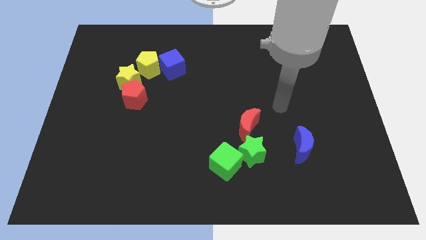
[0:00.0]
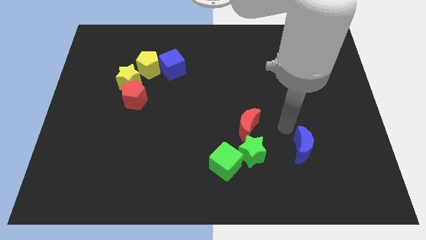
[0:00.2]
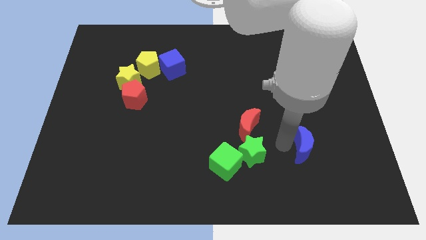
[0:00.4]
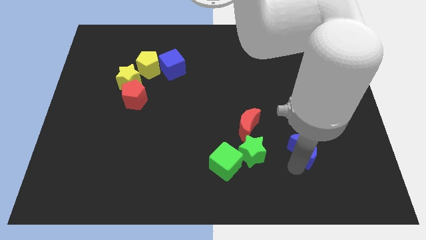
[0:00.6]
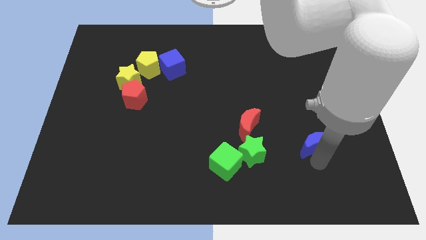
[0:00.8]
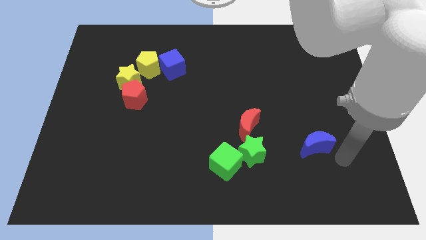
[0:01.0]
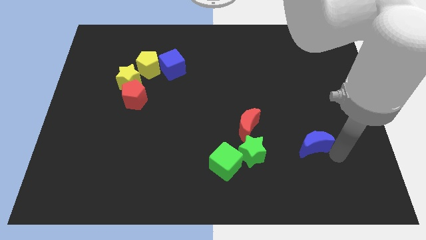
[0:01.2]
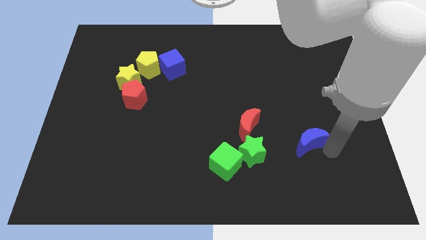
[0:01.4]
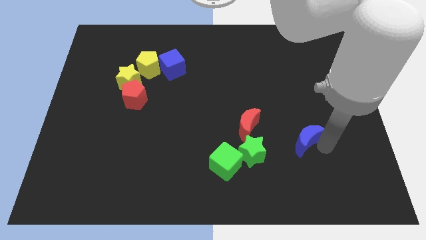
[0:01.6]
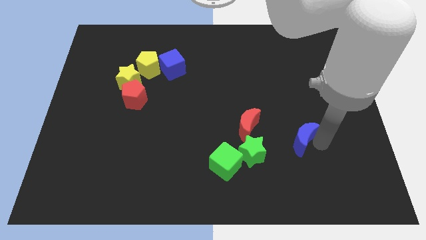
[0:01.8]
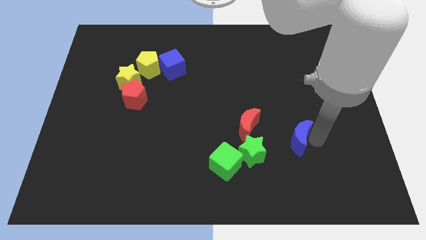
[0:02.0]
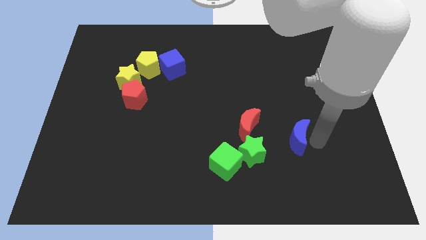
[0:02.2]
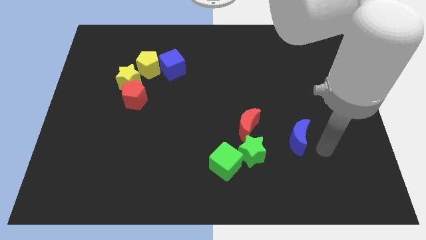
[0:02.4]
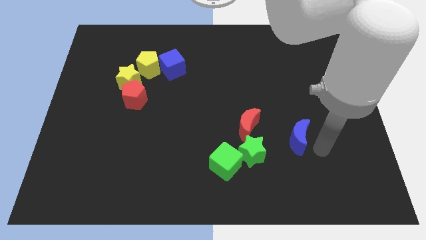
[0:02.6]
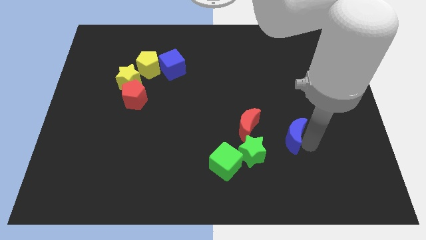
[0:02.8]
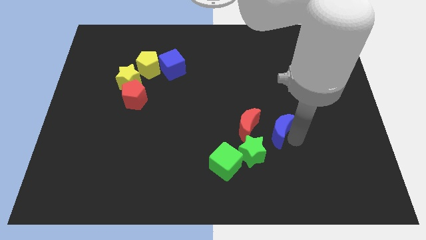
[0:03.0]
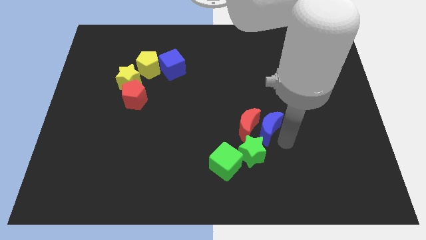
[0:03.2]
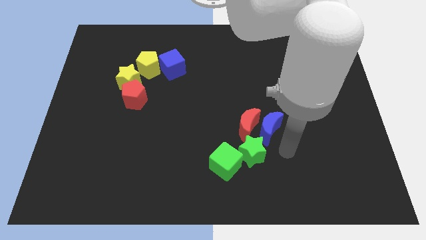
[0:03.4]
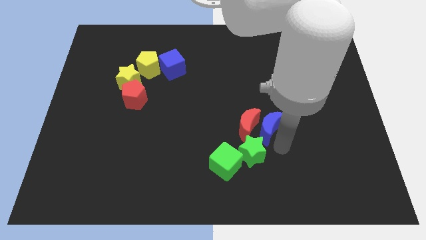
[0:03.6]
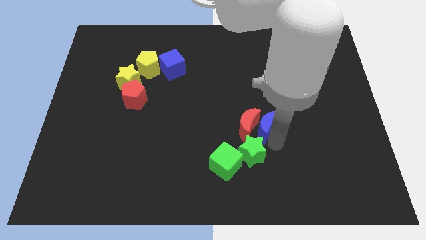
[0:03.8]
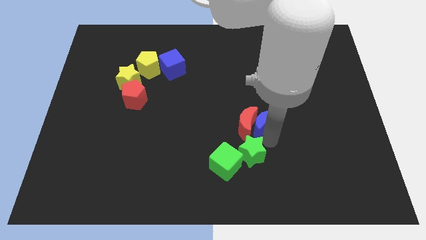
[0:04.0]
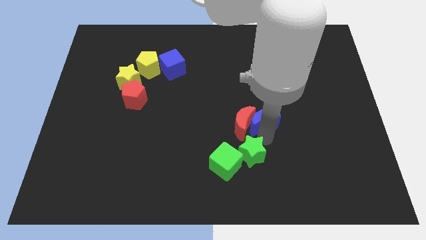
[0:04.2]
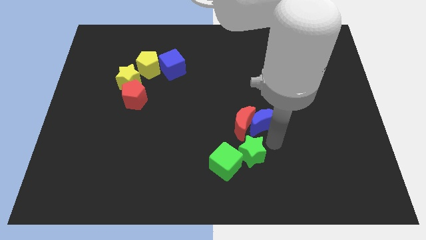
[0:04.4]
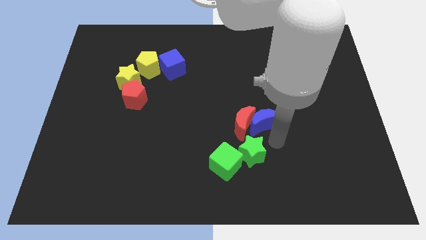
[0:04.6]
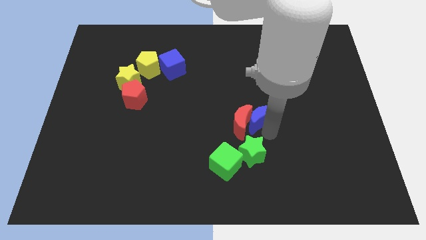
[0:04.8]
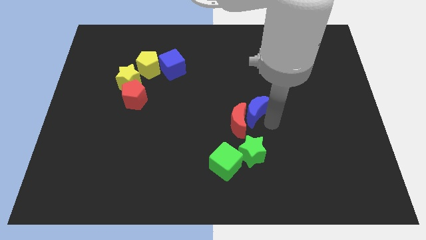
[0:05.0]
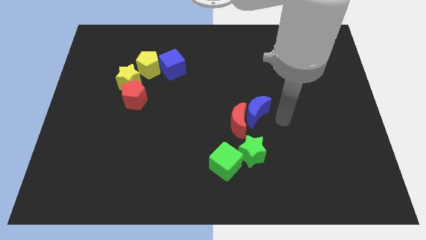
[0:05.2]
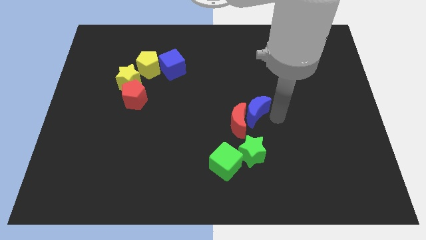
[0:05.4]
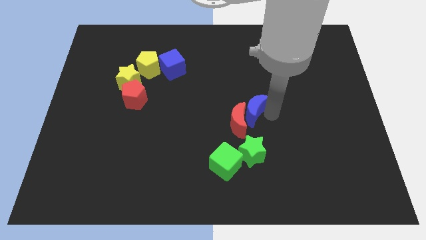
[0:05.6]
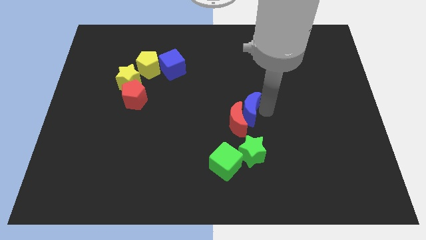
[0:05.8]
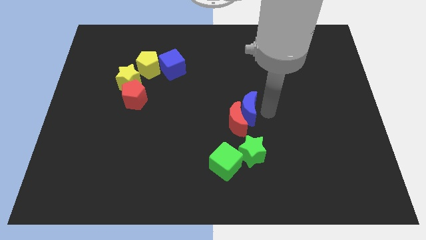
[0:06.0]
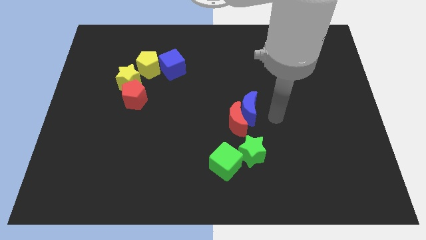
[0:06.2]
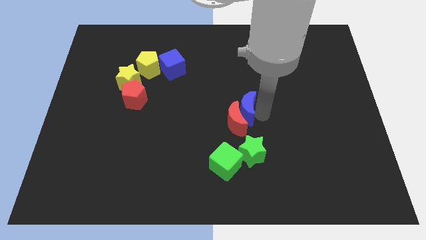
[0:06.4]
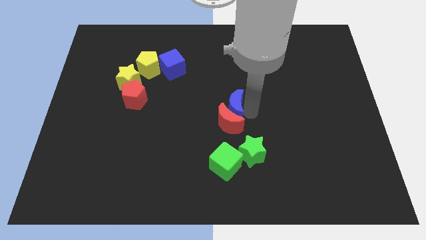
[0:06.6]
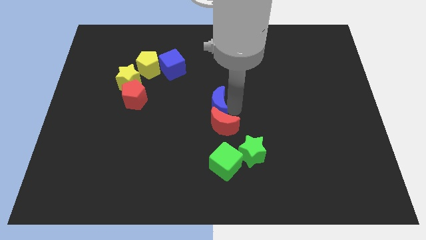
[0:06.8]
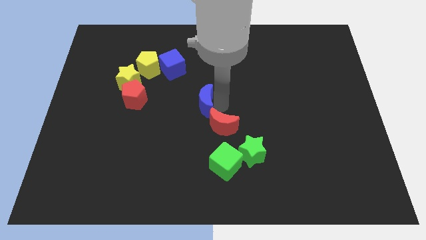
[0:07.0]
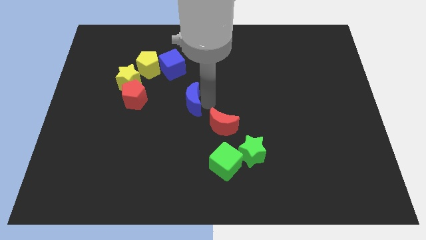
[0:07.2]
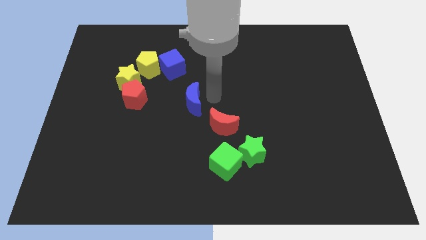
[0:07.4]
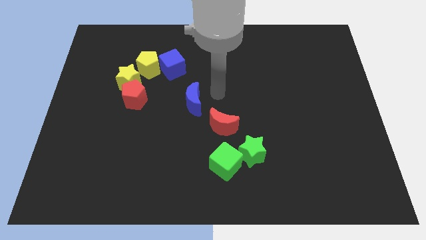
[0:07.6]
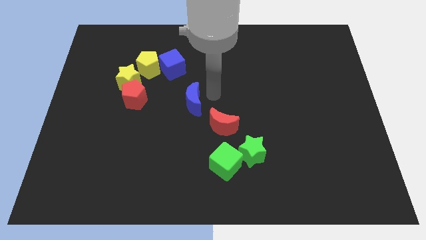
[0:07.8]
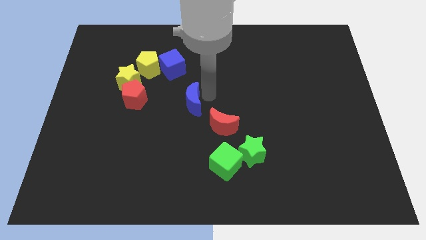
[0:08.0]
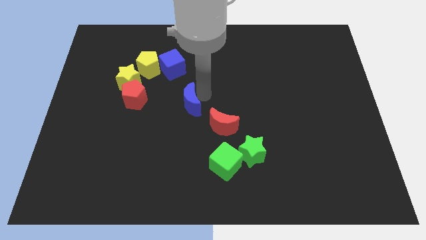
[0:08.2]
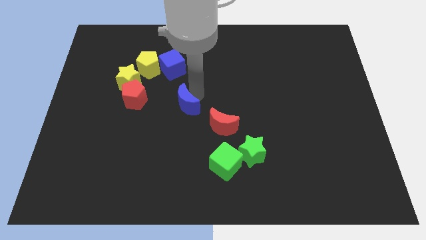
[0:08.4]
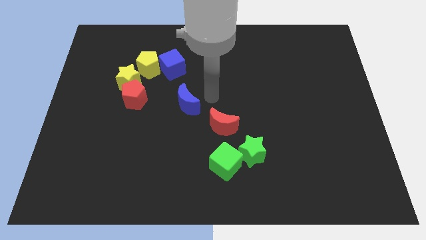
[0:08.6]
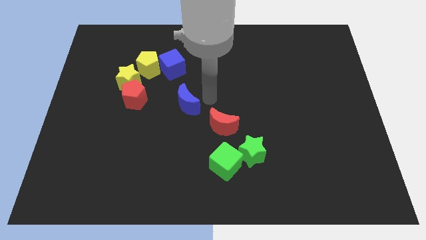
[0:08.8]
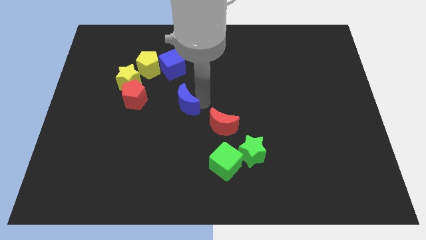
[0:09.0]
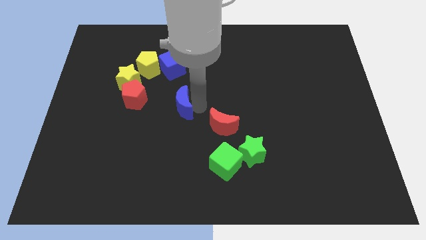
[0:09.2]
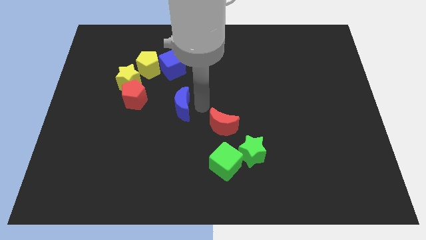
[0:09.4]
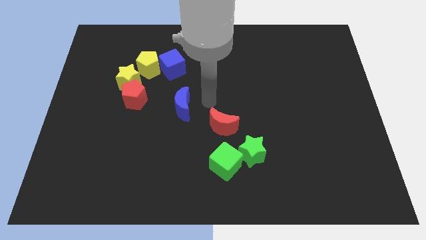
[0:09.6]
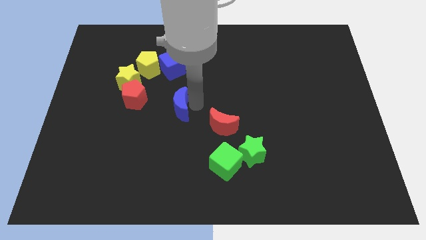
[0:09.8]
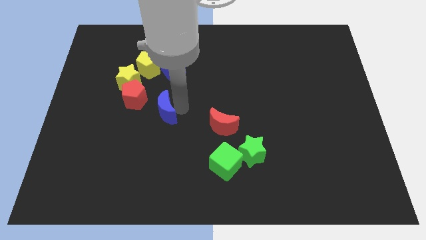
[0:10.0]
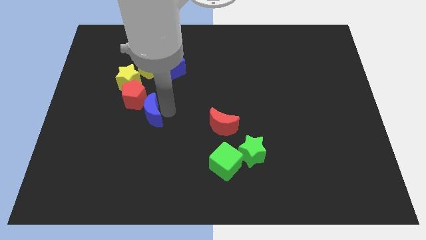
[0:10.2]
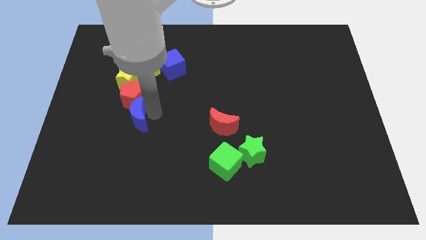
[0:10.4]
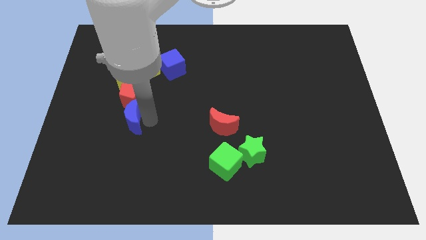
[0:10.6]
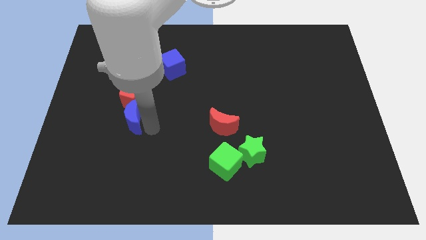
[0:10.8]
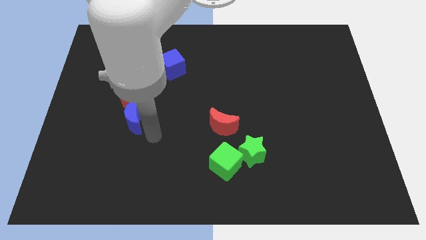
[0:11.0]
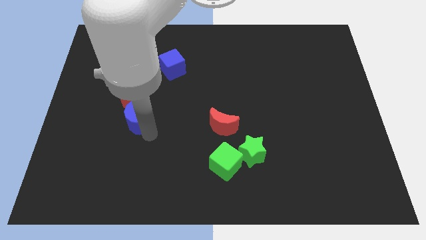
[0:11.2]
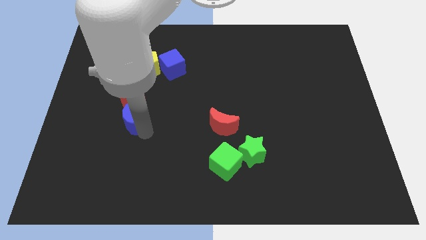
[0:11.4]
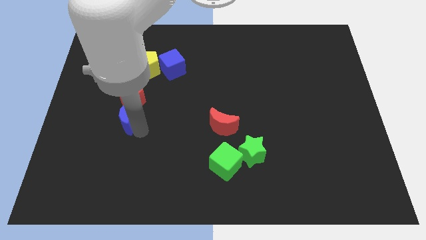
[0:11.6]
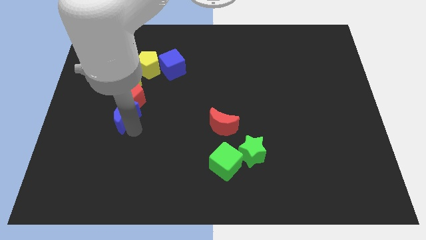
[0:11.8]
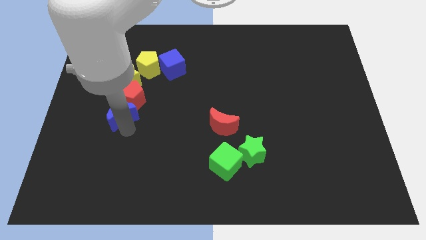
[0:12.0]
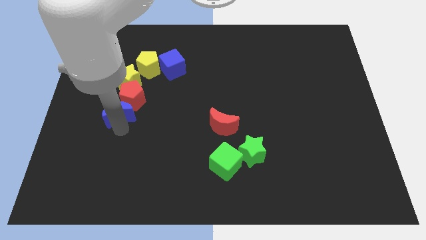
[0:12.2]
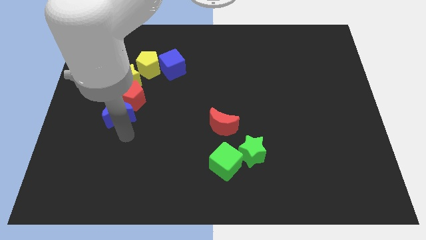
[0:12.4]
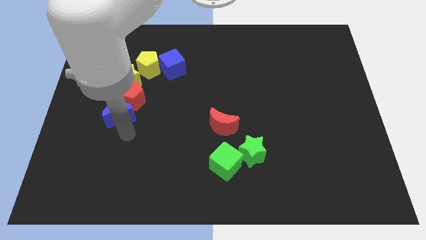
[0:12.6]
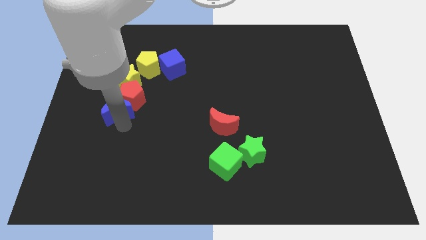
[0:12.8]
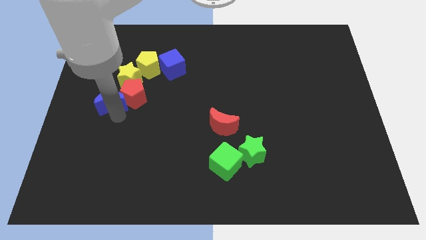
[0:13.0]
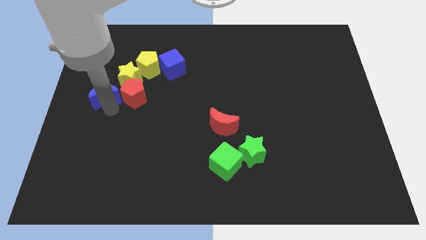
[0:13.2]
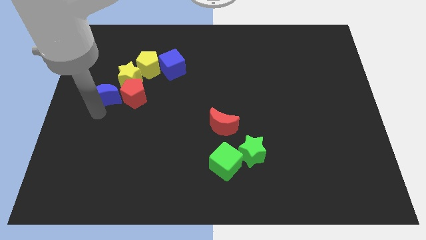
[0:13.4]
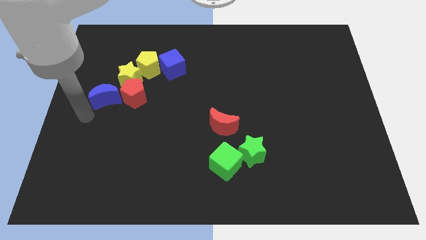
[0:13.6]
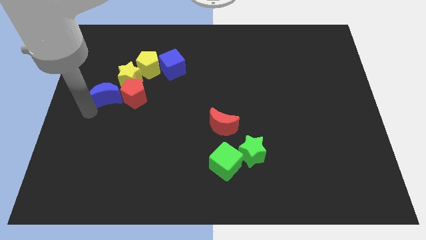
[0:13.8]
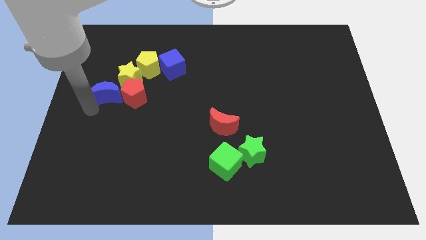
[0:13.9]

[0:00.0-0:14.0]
slide the blue moon to the bottom left side of the yellow pentagon

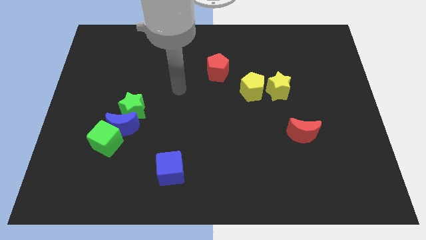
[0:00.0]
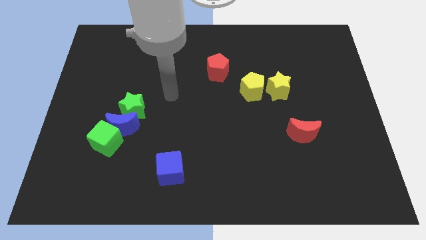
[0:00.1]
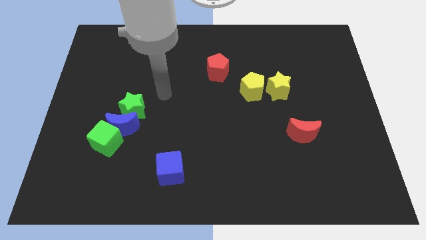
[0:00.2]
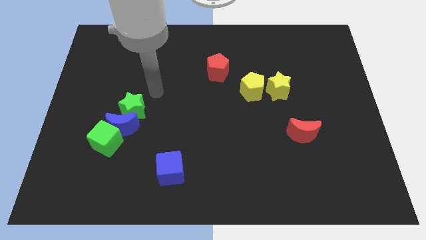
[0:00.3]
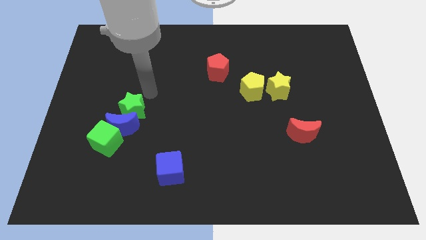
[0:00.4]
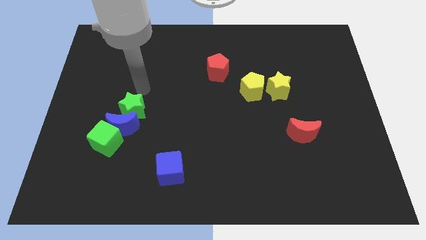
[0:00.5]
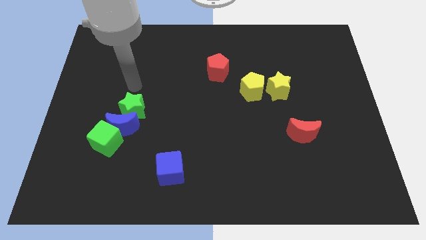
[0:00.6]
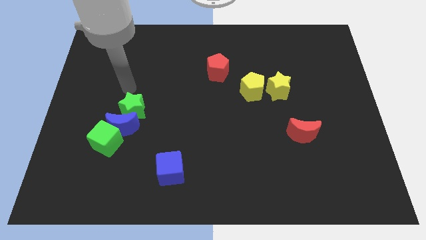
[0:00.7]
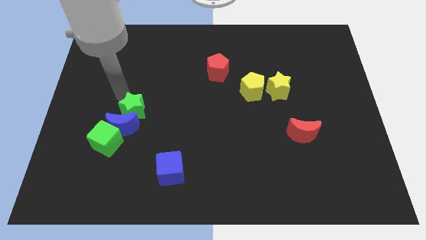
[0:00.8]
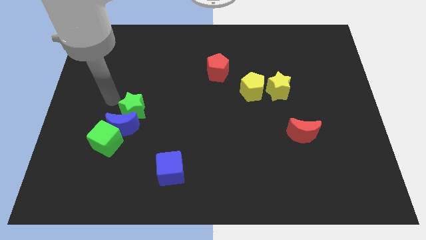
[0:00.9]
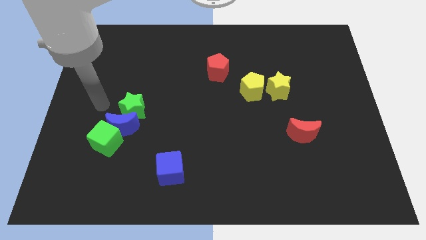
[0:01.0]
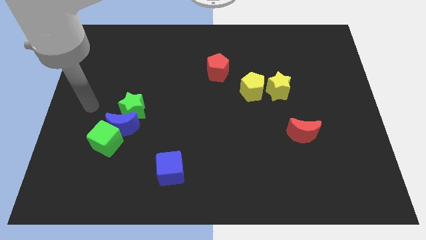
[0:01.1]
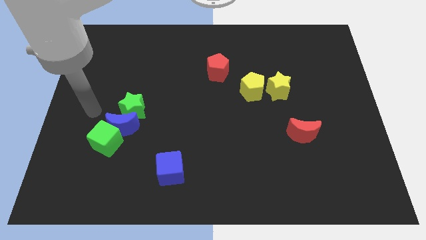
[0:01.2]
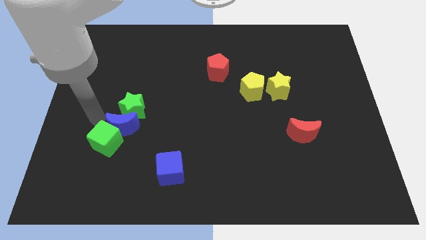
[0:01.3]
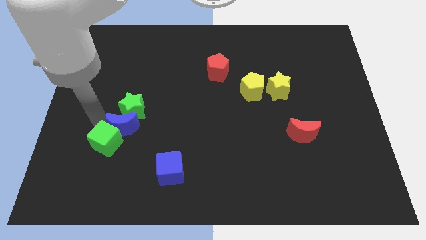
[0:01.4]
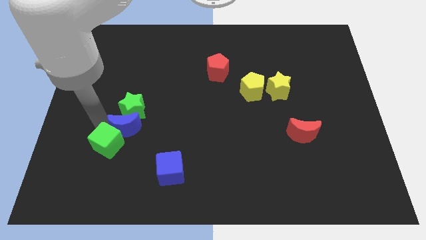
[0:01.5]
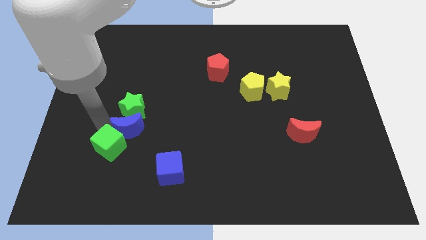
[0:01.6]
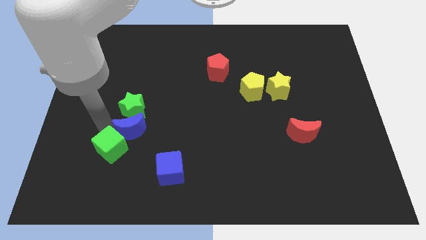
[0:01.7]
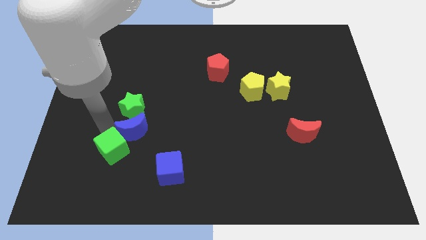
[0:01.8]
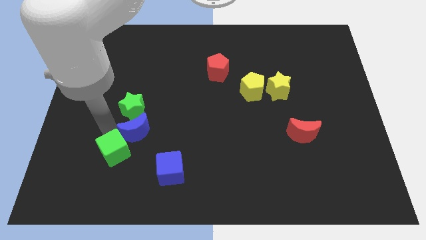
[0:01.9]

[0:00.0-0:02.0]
push the green cube left of the blue cube
